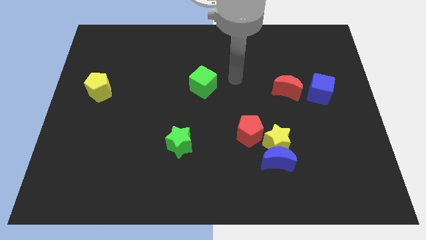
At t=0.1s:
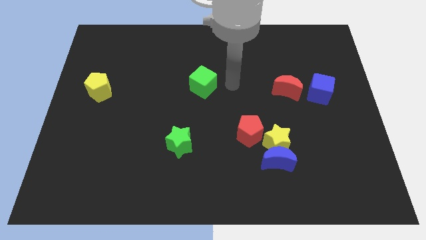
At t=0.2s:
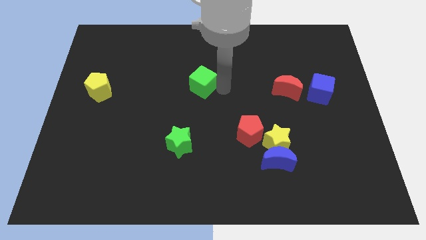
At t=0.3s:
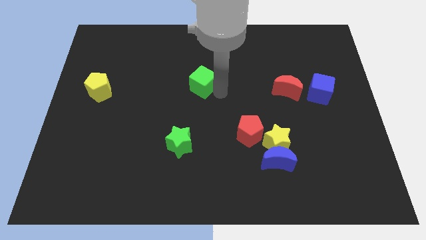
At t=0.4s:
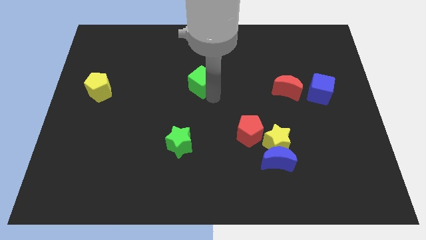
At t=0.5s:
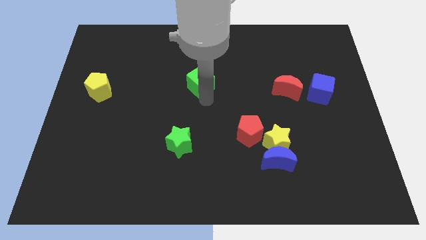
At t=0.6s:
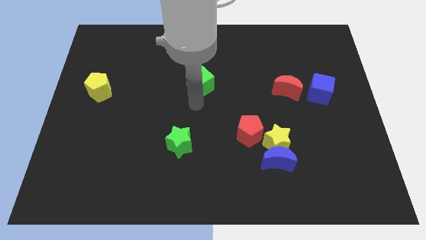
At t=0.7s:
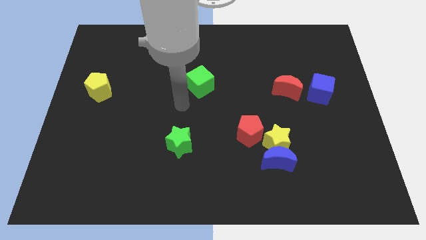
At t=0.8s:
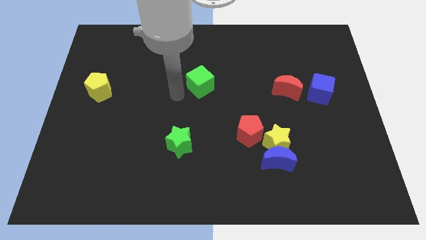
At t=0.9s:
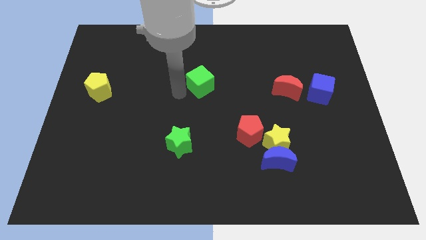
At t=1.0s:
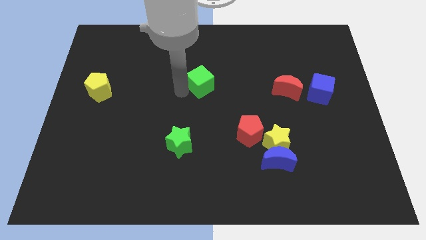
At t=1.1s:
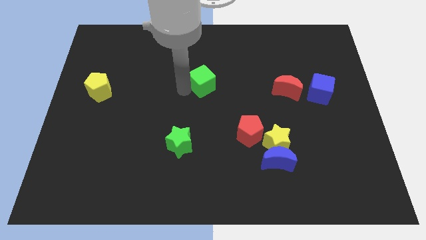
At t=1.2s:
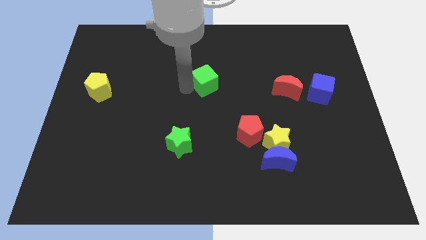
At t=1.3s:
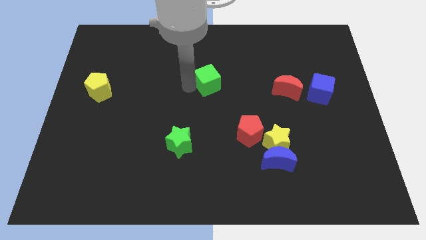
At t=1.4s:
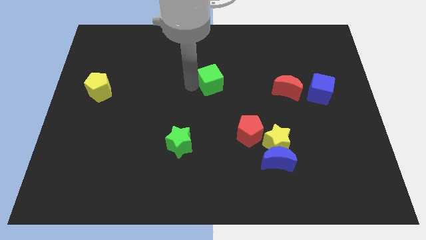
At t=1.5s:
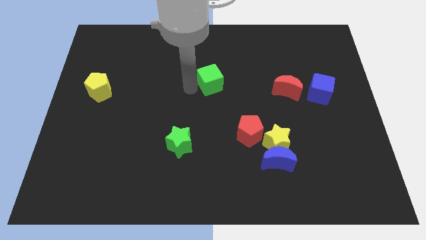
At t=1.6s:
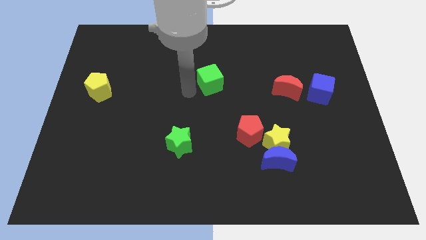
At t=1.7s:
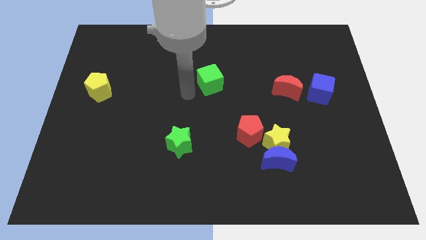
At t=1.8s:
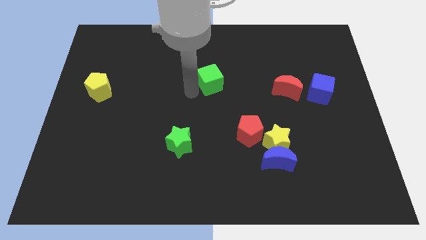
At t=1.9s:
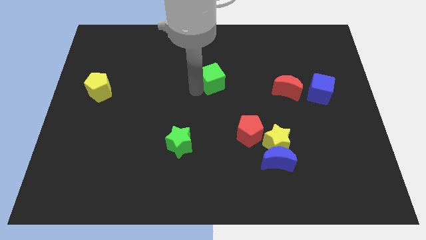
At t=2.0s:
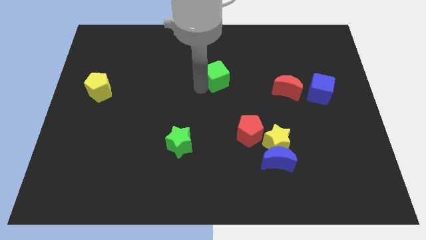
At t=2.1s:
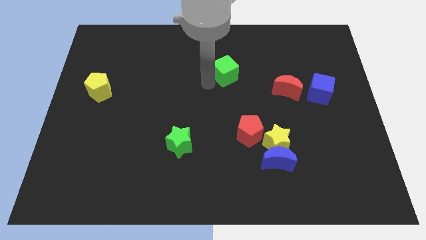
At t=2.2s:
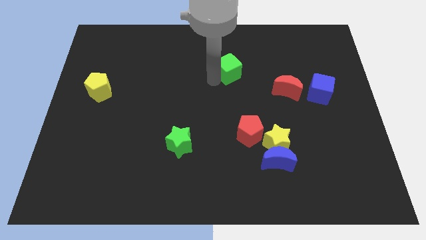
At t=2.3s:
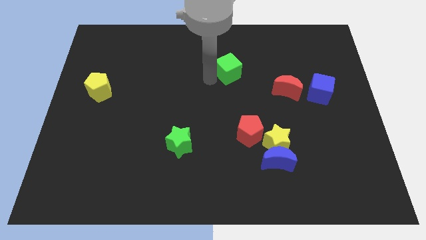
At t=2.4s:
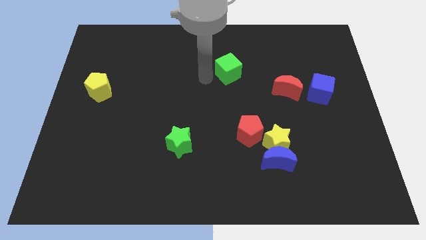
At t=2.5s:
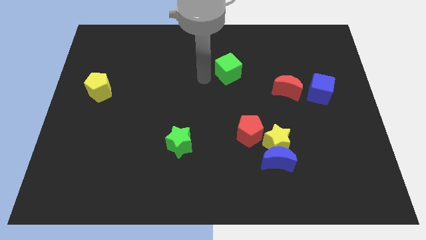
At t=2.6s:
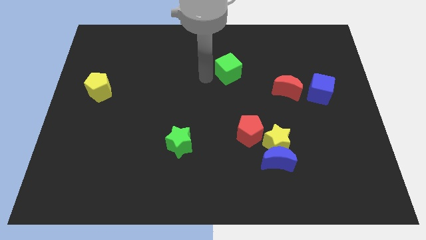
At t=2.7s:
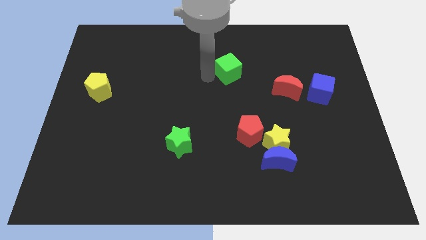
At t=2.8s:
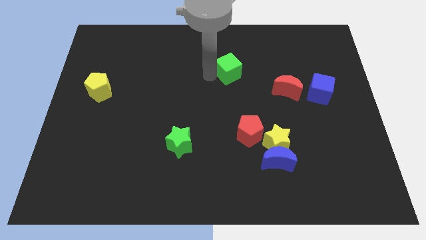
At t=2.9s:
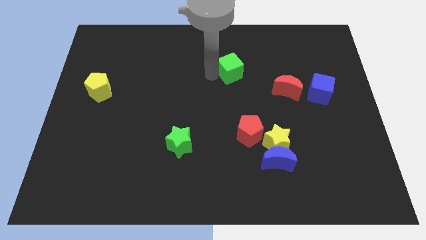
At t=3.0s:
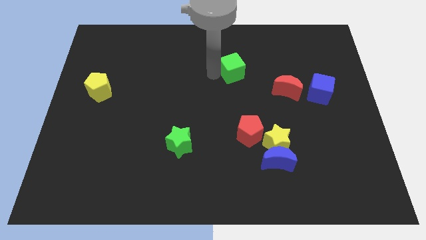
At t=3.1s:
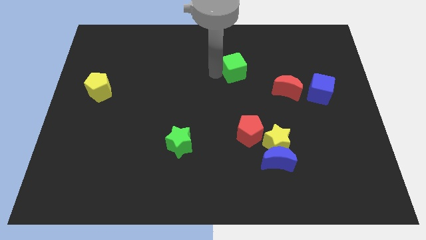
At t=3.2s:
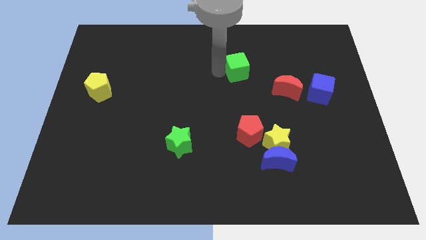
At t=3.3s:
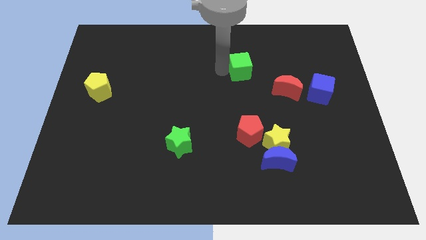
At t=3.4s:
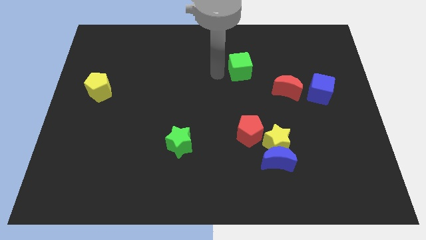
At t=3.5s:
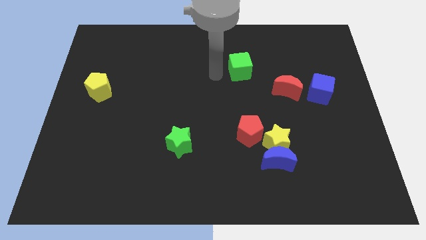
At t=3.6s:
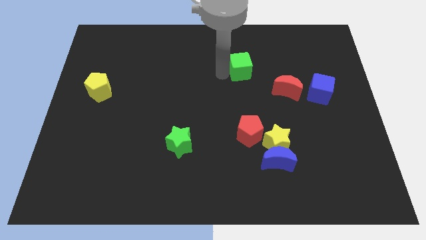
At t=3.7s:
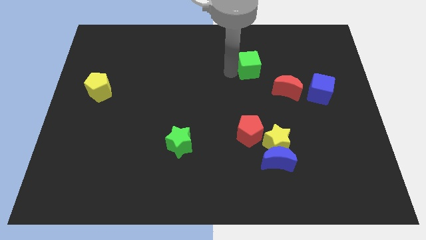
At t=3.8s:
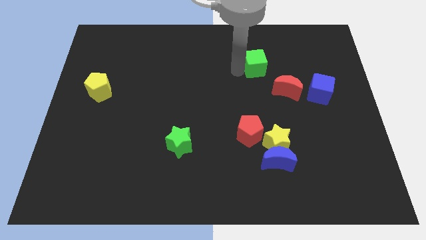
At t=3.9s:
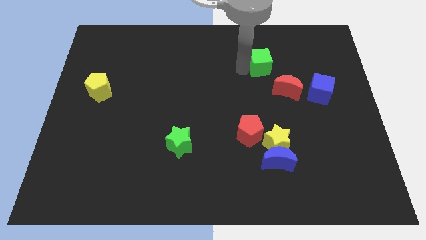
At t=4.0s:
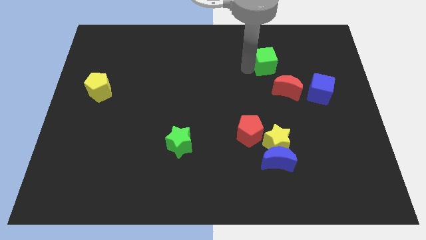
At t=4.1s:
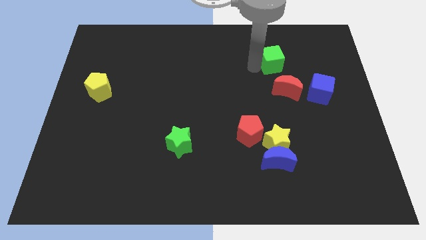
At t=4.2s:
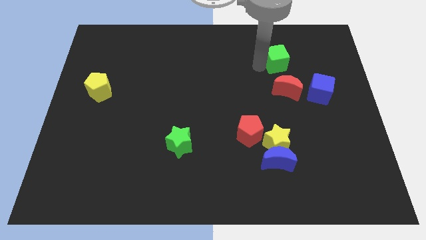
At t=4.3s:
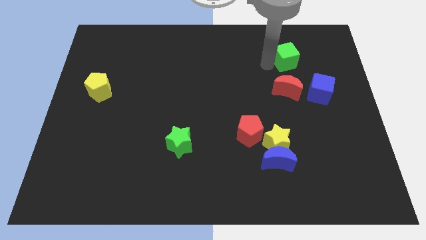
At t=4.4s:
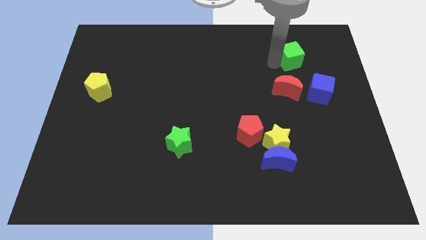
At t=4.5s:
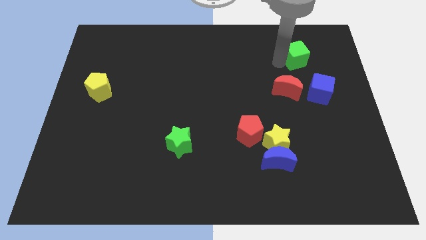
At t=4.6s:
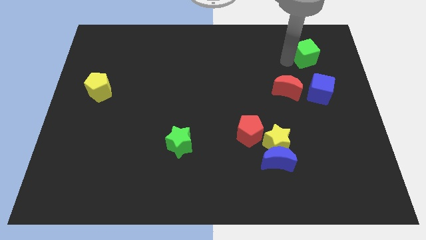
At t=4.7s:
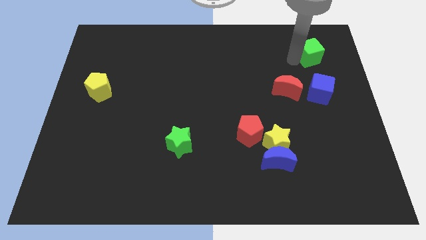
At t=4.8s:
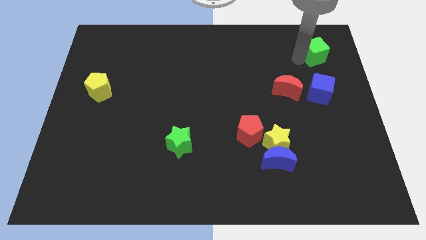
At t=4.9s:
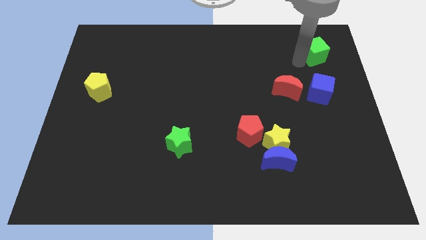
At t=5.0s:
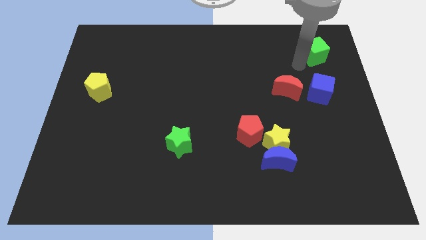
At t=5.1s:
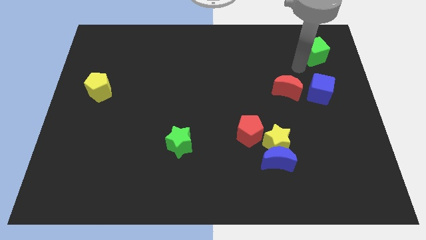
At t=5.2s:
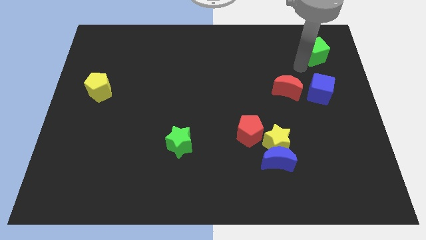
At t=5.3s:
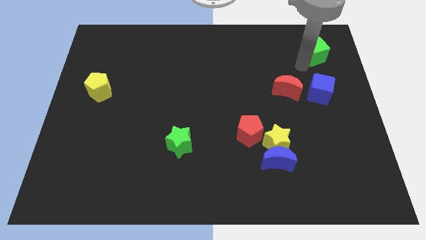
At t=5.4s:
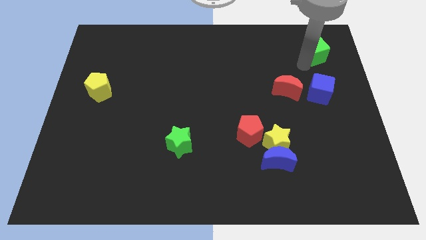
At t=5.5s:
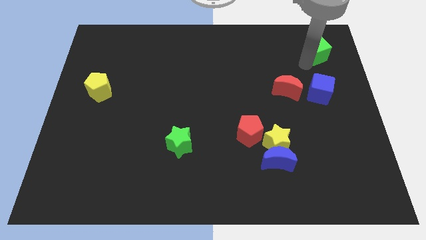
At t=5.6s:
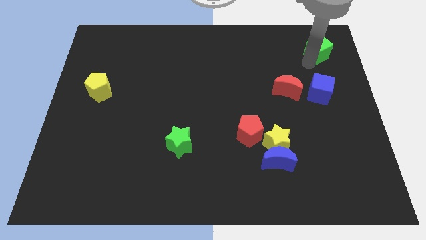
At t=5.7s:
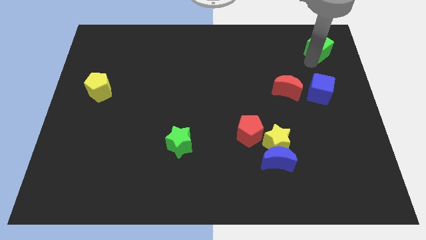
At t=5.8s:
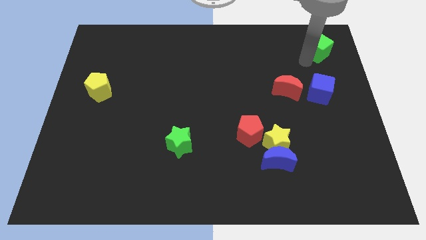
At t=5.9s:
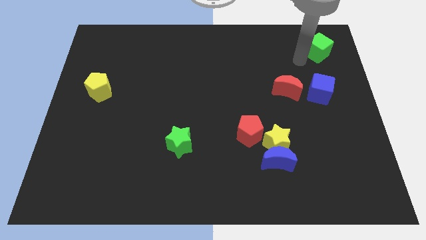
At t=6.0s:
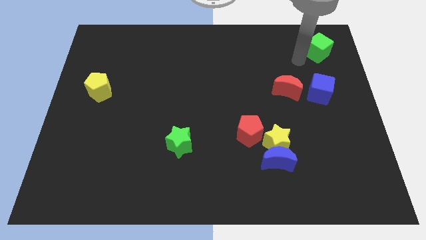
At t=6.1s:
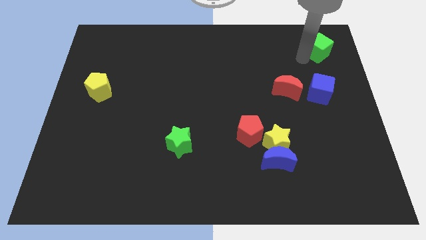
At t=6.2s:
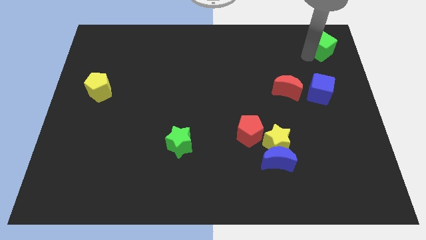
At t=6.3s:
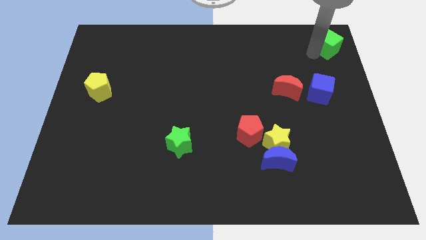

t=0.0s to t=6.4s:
slide the green cube to the upper right corner

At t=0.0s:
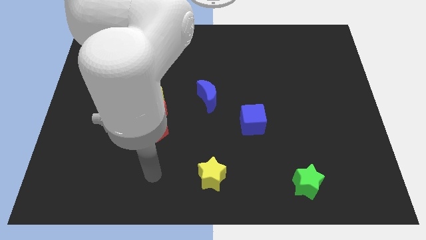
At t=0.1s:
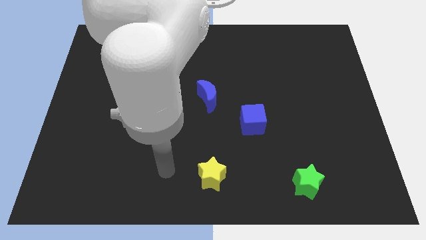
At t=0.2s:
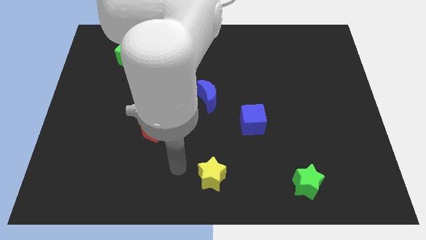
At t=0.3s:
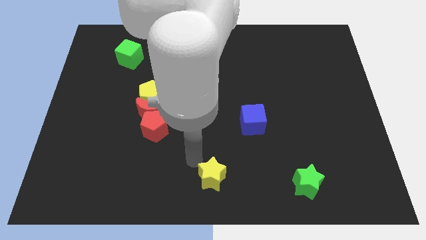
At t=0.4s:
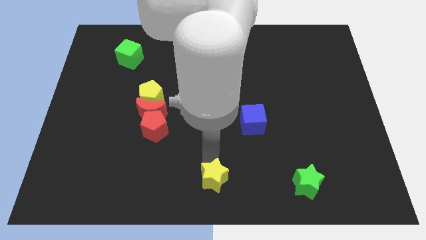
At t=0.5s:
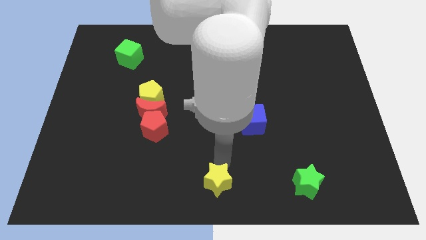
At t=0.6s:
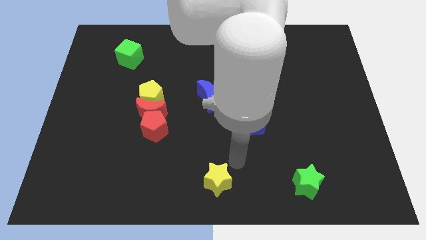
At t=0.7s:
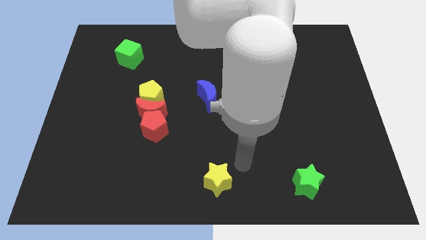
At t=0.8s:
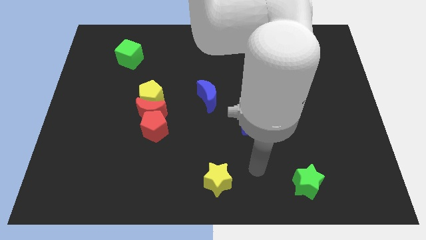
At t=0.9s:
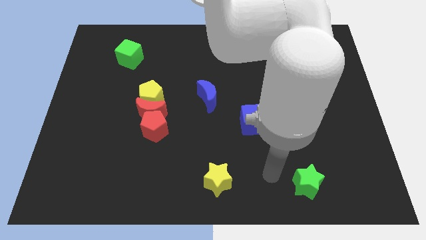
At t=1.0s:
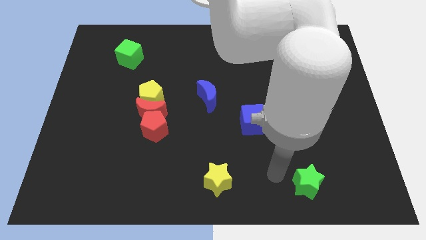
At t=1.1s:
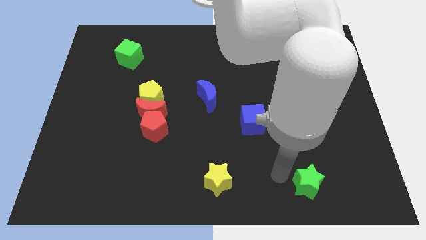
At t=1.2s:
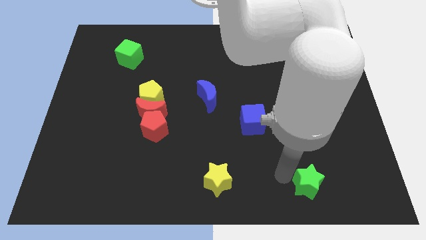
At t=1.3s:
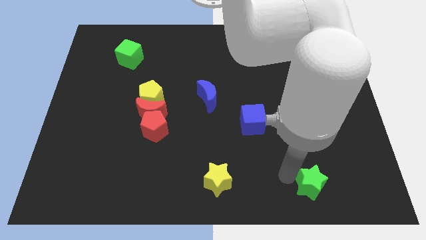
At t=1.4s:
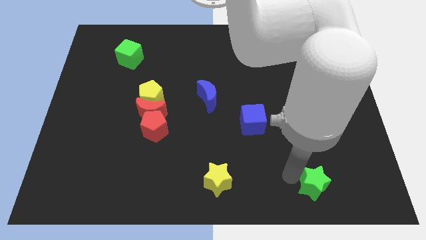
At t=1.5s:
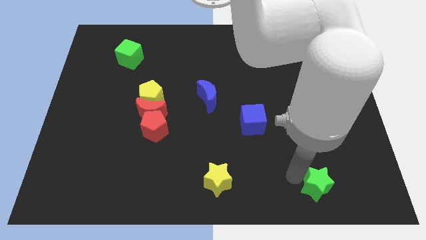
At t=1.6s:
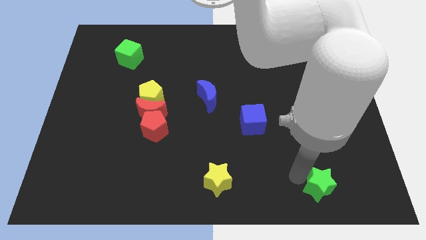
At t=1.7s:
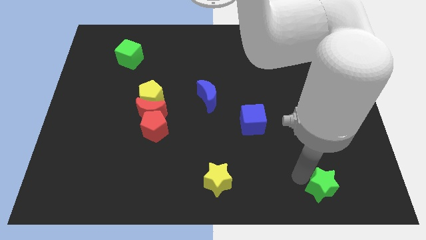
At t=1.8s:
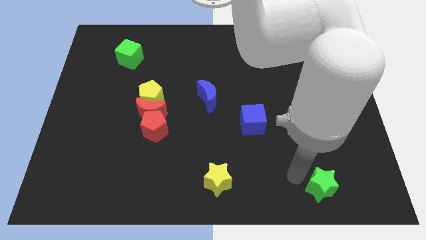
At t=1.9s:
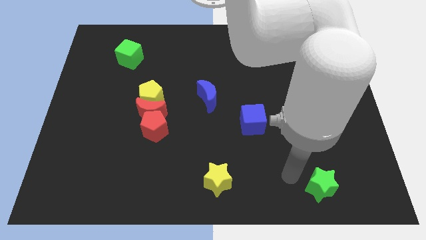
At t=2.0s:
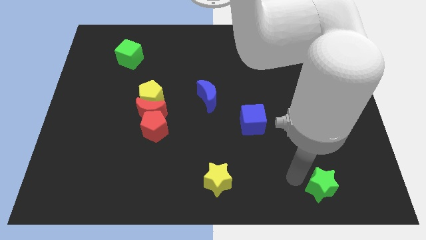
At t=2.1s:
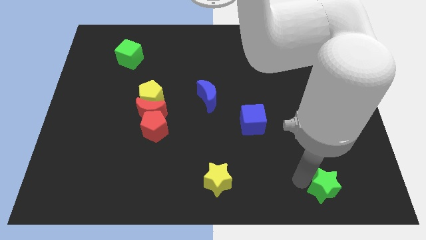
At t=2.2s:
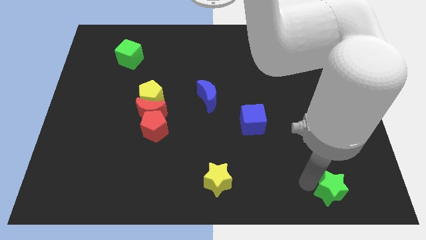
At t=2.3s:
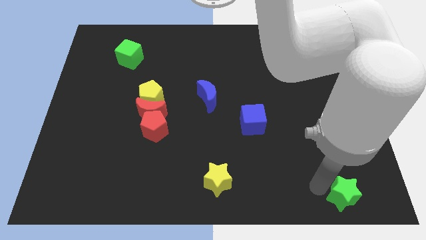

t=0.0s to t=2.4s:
slide the green star to the bottom right corner
